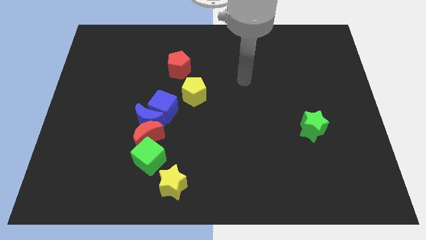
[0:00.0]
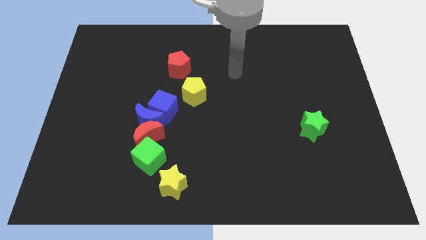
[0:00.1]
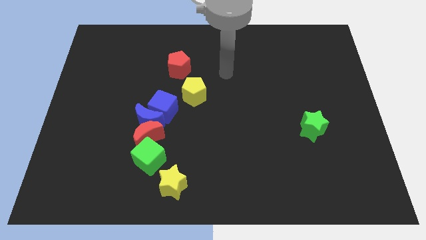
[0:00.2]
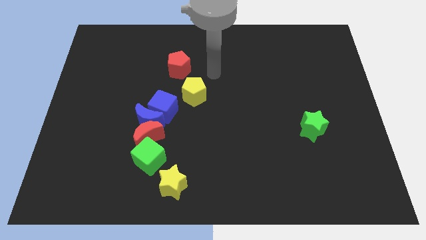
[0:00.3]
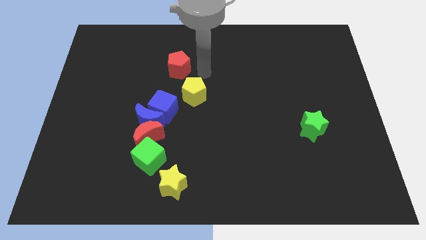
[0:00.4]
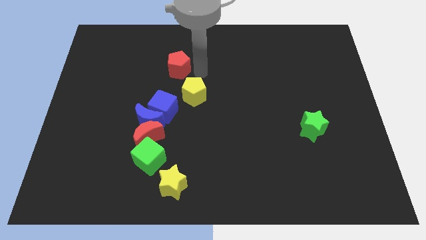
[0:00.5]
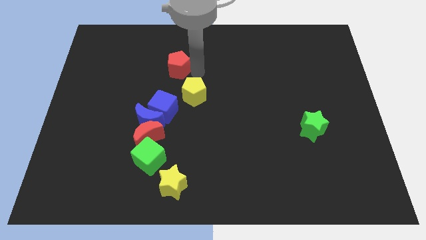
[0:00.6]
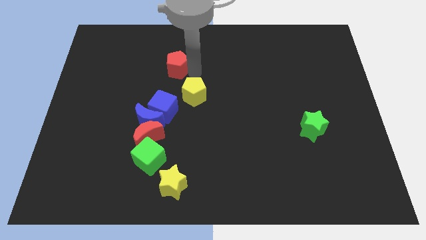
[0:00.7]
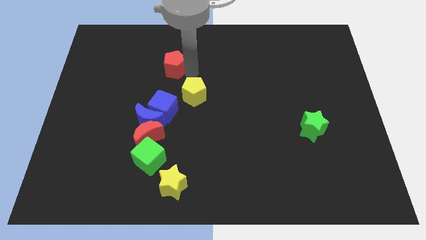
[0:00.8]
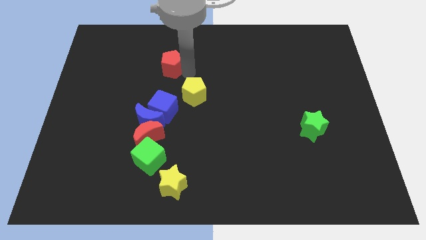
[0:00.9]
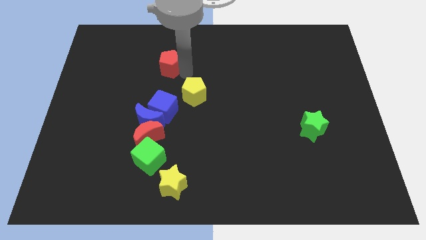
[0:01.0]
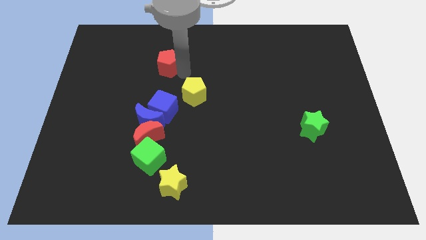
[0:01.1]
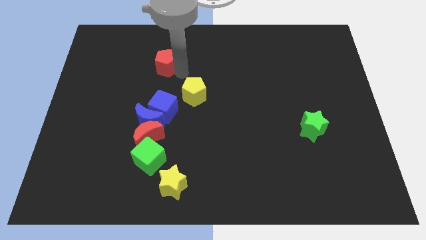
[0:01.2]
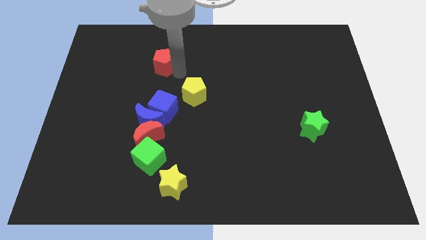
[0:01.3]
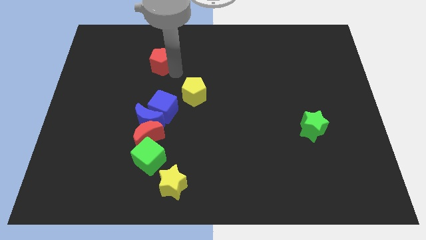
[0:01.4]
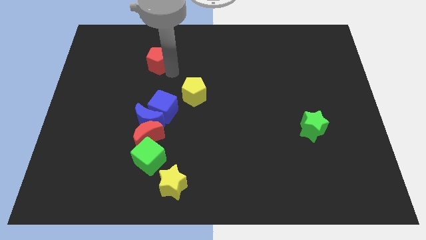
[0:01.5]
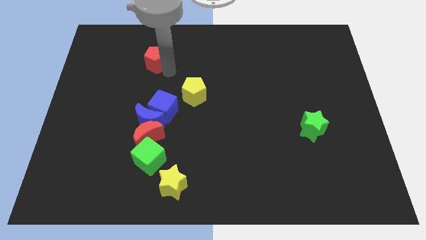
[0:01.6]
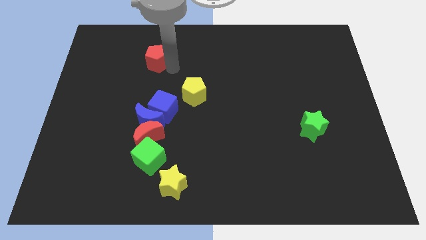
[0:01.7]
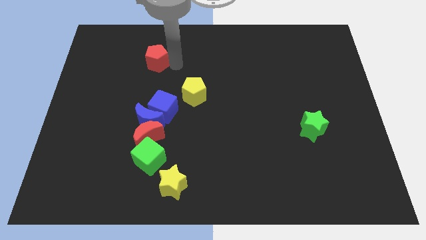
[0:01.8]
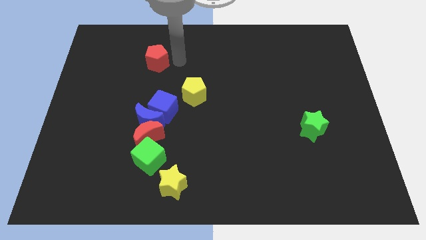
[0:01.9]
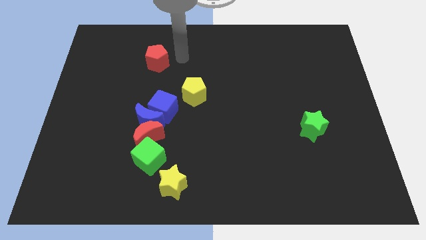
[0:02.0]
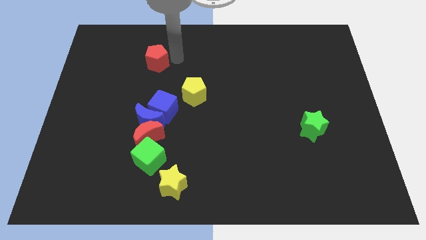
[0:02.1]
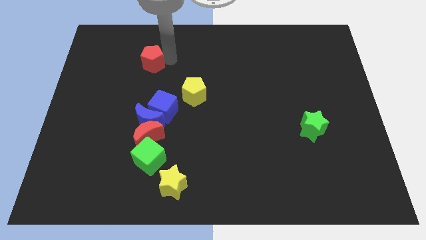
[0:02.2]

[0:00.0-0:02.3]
move the red pentagon somewhat left

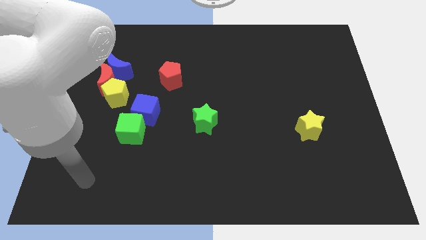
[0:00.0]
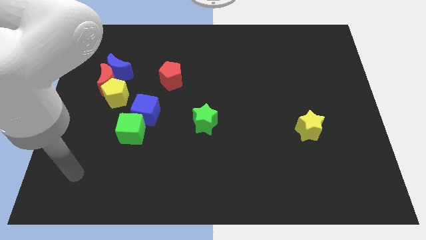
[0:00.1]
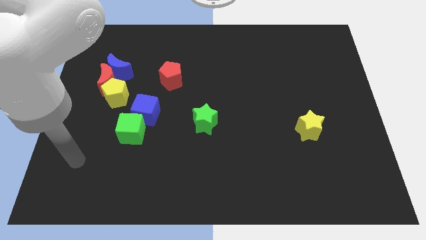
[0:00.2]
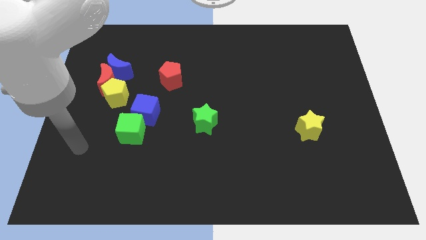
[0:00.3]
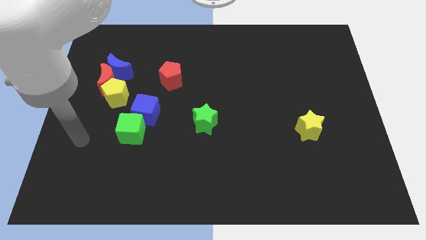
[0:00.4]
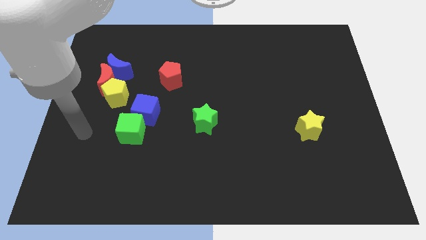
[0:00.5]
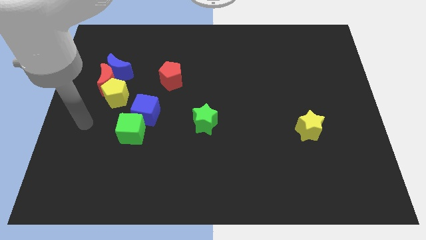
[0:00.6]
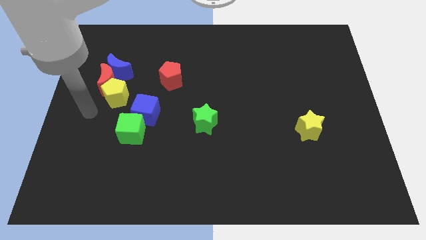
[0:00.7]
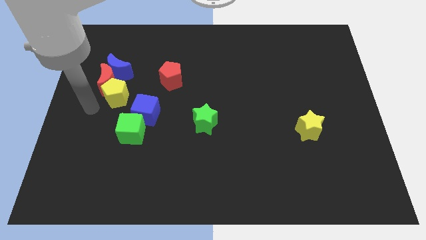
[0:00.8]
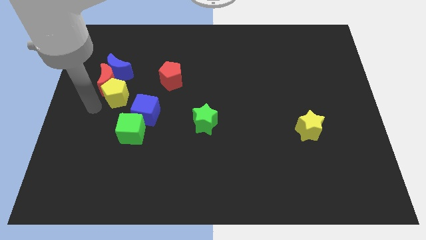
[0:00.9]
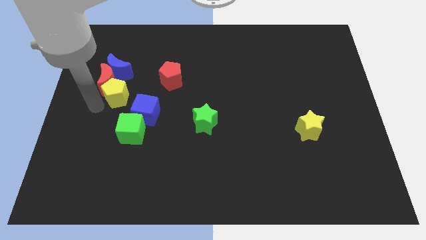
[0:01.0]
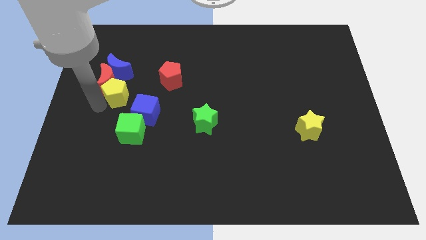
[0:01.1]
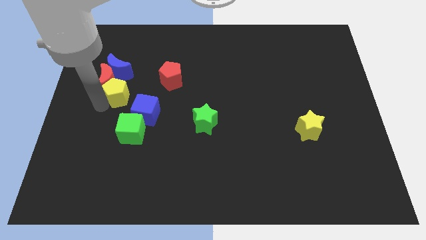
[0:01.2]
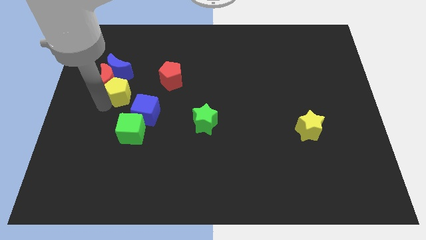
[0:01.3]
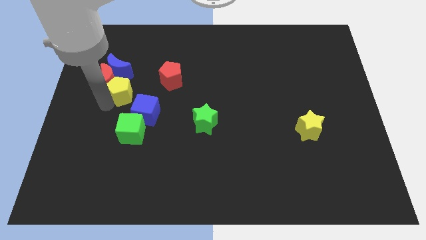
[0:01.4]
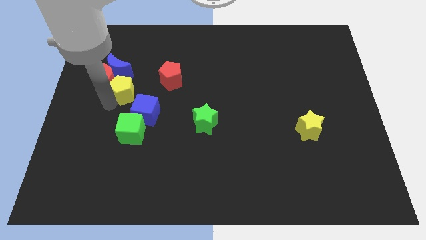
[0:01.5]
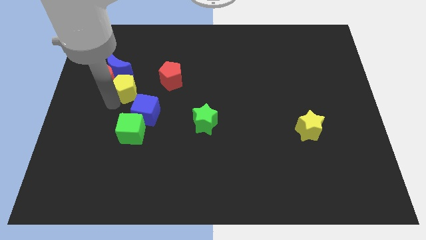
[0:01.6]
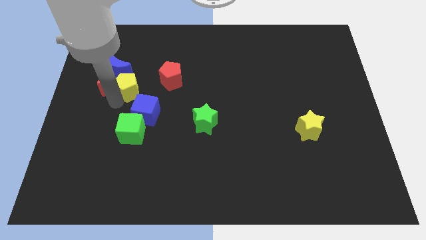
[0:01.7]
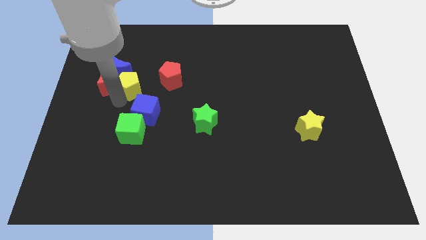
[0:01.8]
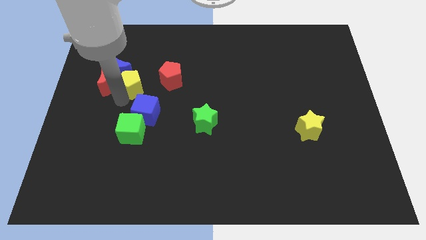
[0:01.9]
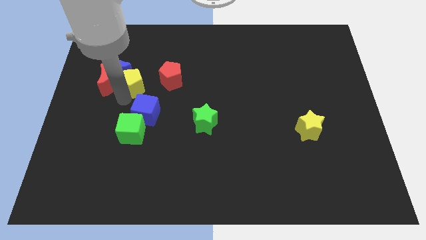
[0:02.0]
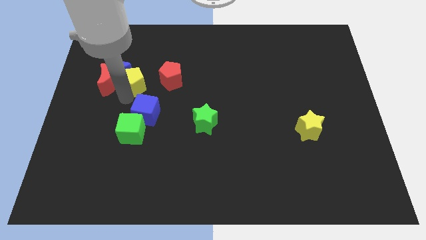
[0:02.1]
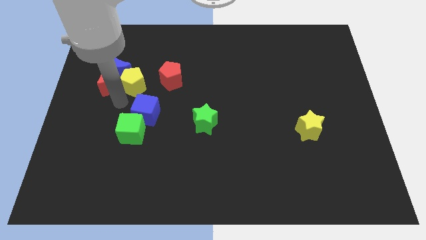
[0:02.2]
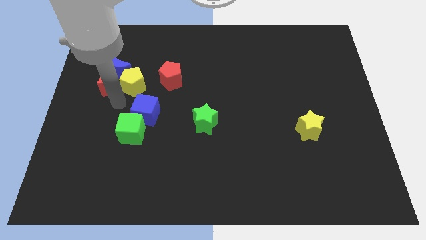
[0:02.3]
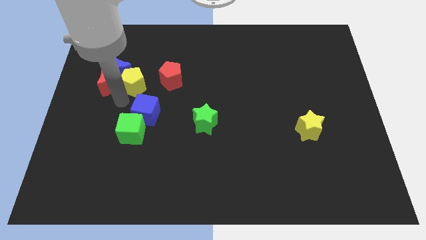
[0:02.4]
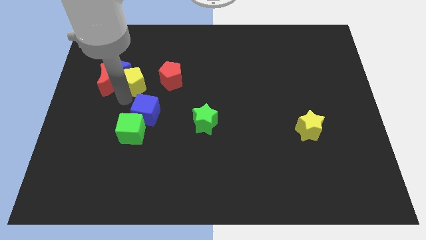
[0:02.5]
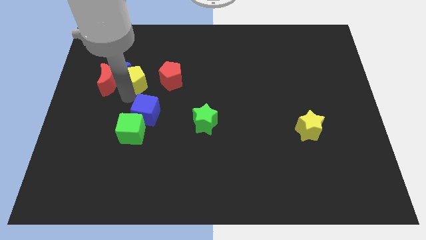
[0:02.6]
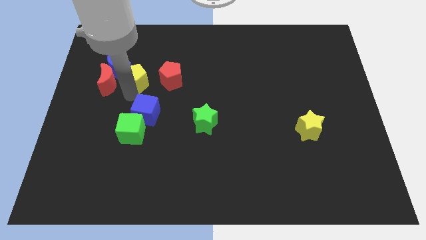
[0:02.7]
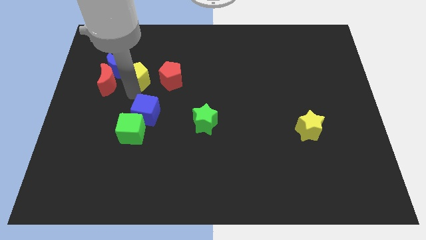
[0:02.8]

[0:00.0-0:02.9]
move the yellow pentagon a bit diagonally up and right

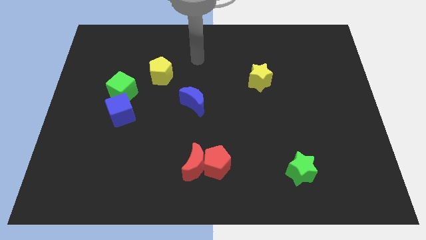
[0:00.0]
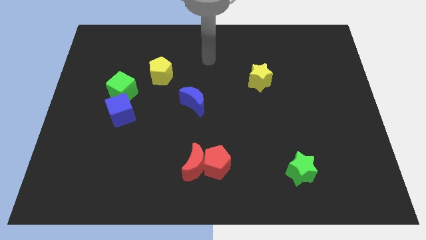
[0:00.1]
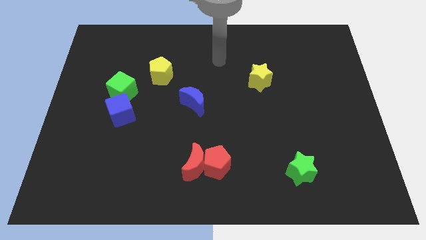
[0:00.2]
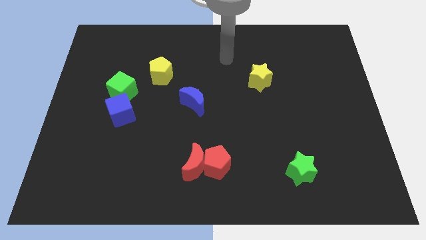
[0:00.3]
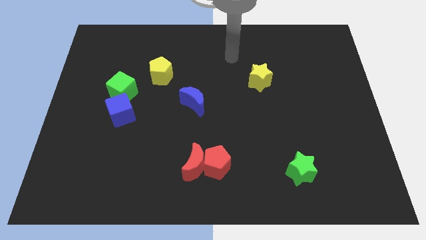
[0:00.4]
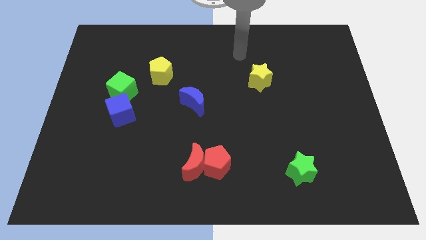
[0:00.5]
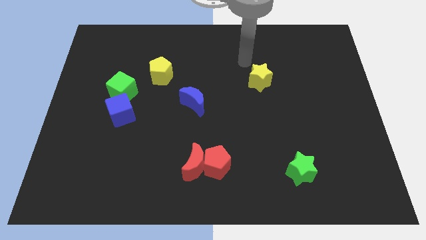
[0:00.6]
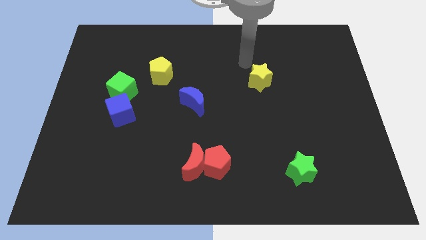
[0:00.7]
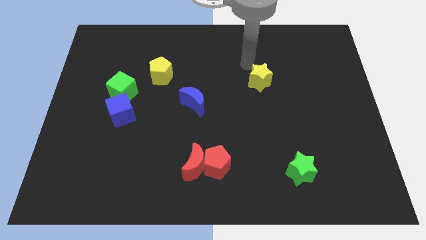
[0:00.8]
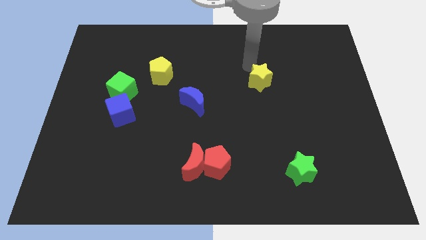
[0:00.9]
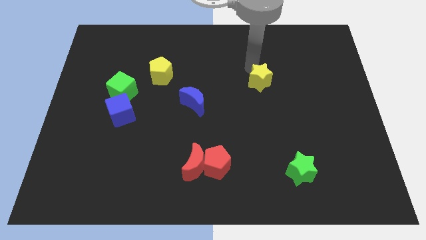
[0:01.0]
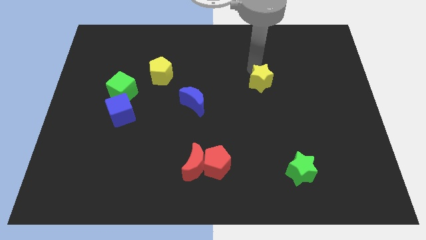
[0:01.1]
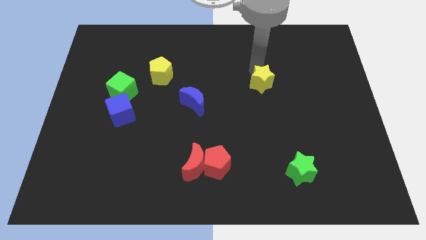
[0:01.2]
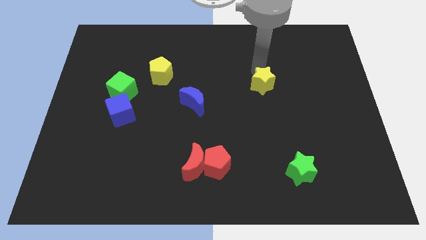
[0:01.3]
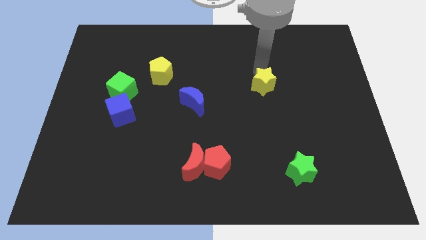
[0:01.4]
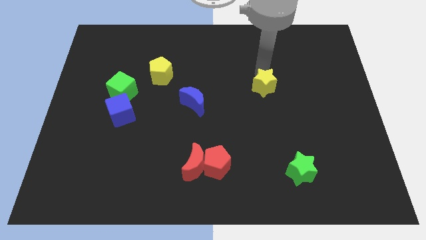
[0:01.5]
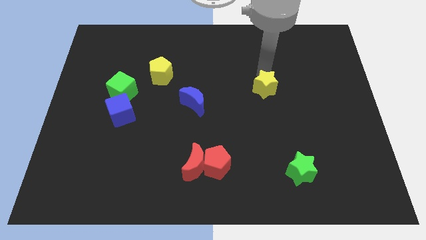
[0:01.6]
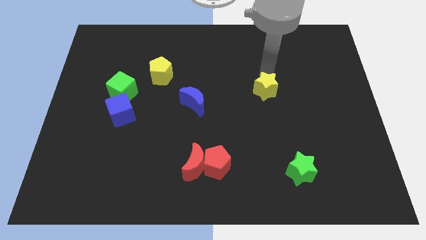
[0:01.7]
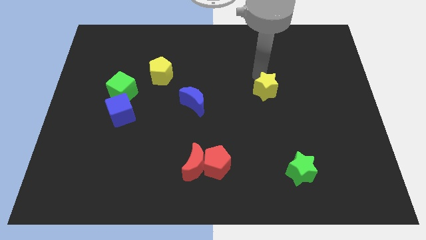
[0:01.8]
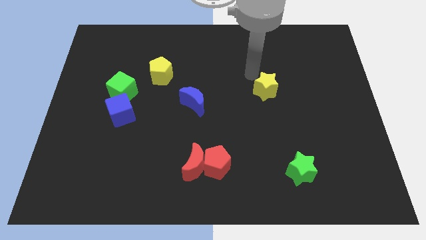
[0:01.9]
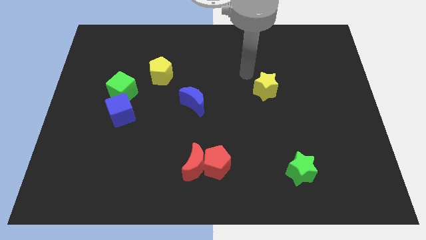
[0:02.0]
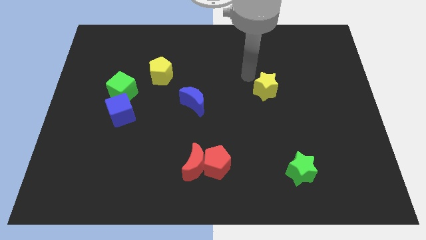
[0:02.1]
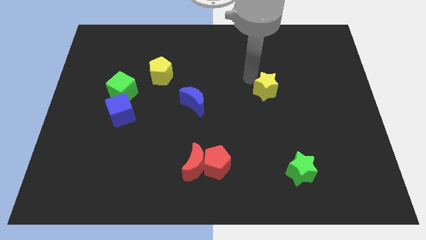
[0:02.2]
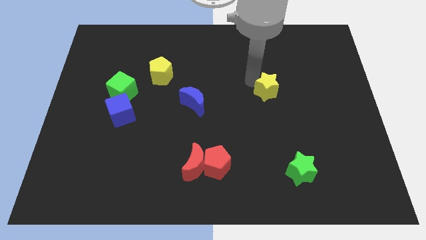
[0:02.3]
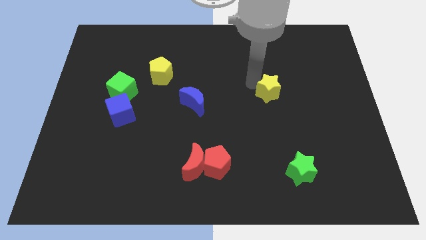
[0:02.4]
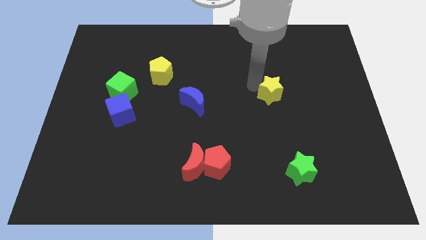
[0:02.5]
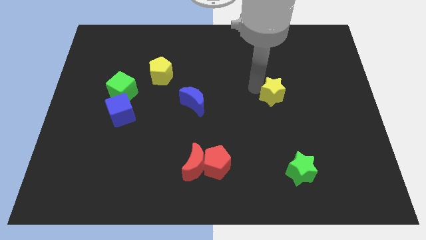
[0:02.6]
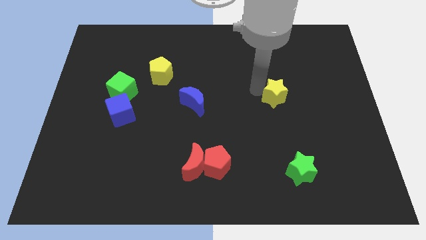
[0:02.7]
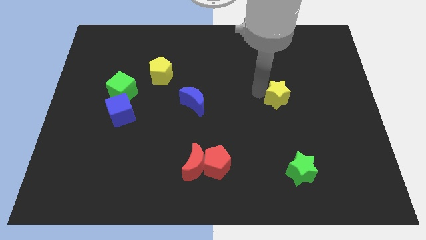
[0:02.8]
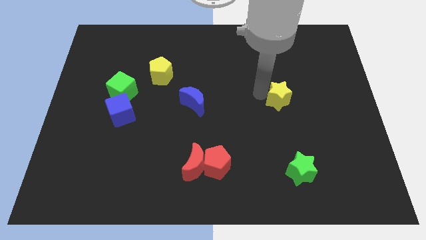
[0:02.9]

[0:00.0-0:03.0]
move the yellow star downwards and to the right diagonally a little bit

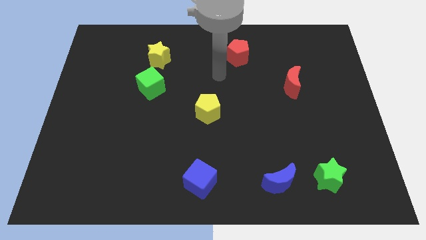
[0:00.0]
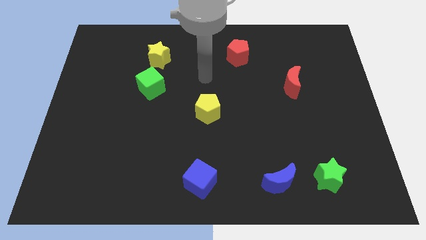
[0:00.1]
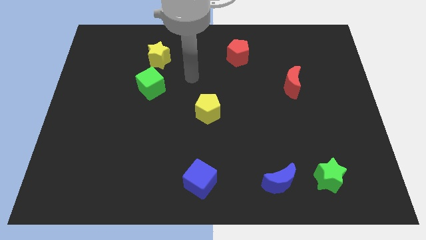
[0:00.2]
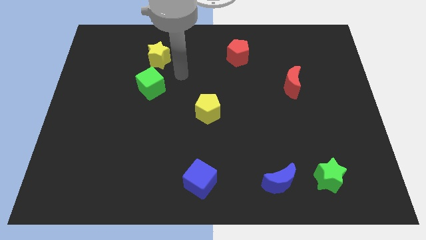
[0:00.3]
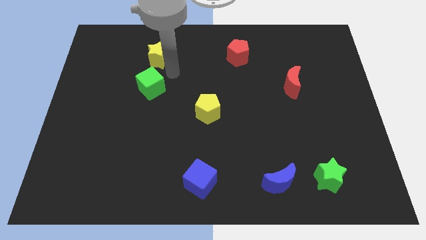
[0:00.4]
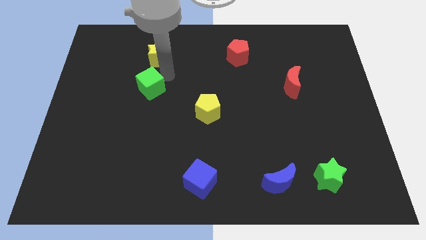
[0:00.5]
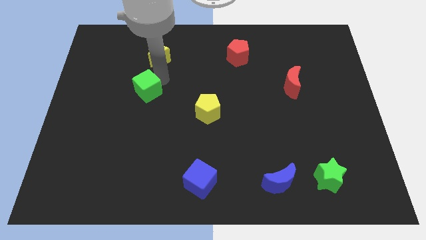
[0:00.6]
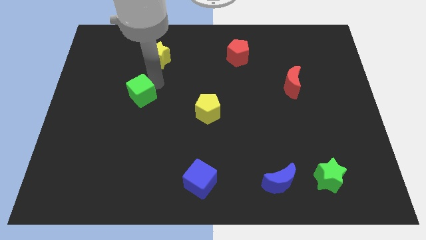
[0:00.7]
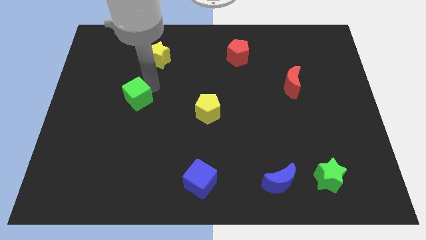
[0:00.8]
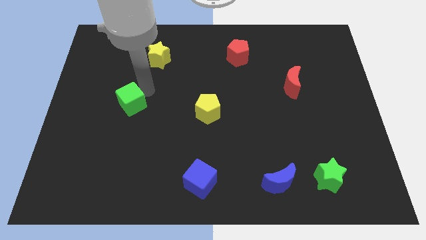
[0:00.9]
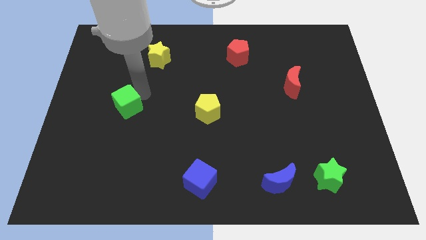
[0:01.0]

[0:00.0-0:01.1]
push the green cube down and then to the left a little
